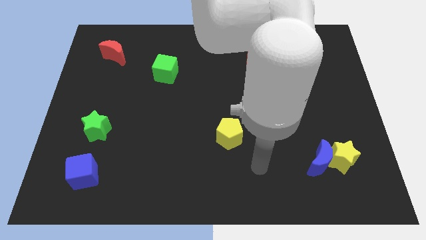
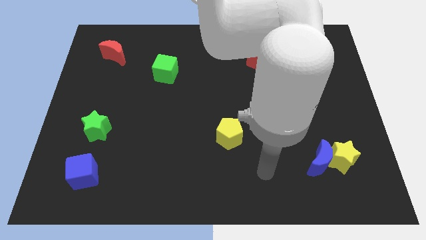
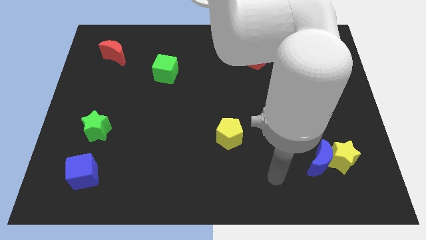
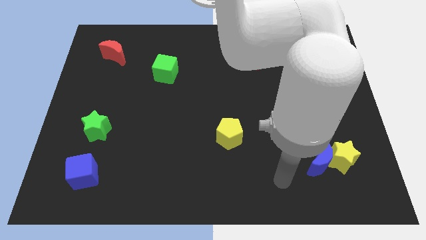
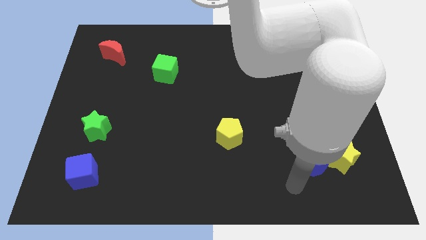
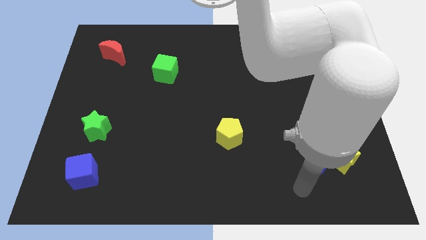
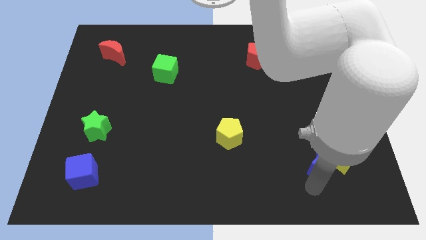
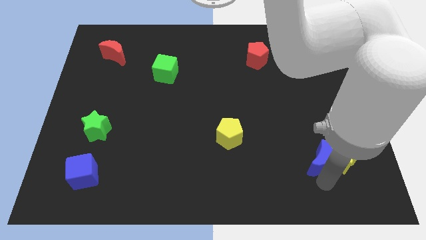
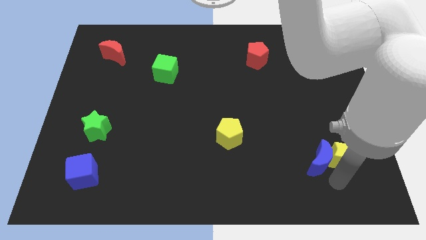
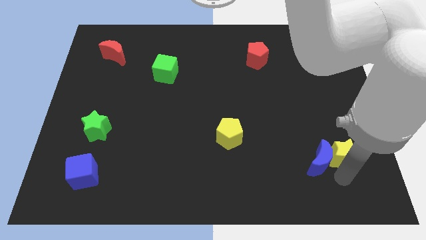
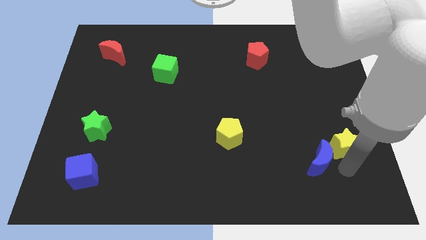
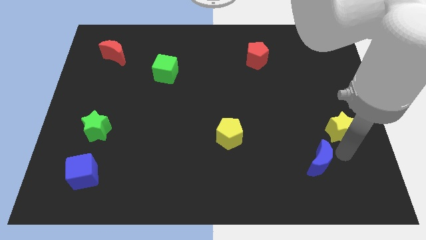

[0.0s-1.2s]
move the blue moon away from the yellow star

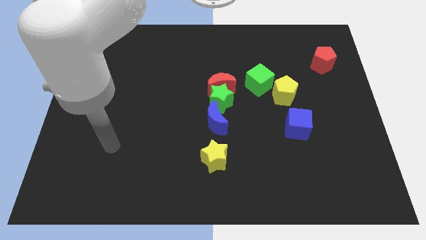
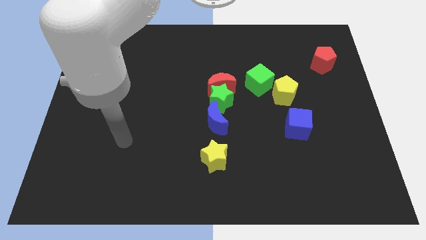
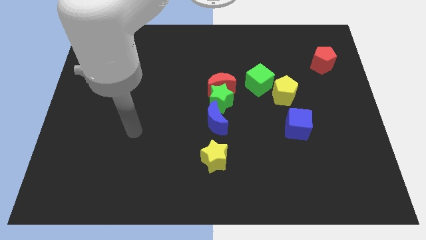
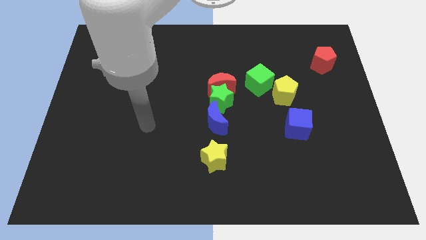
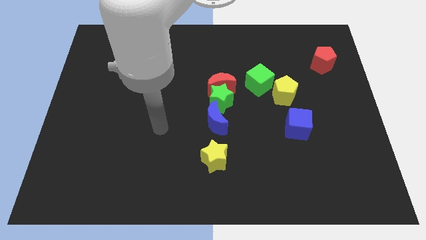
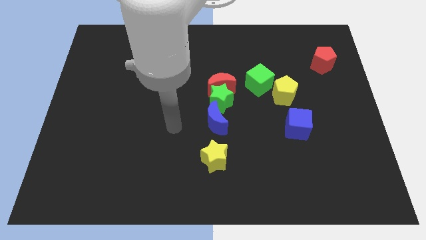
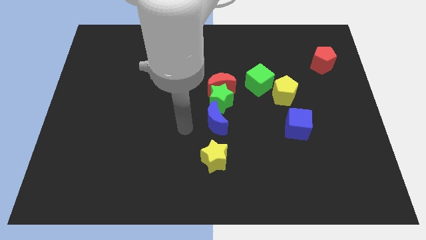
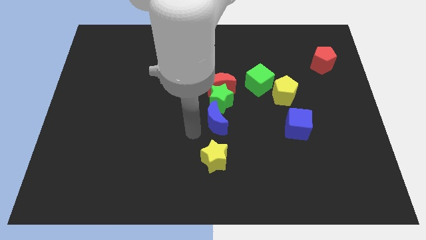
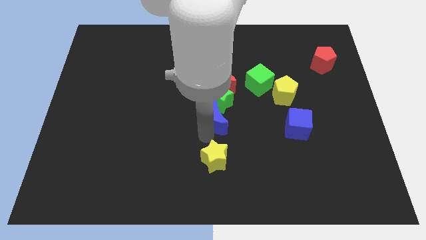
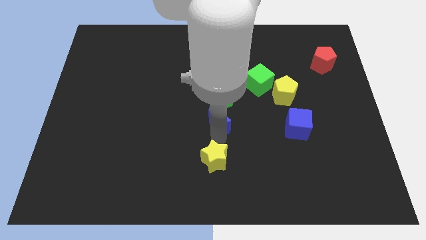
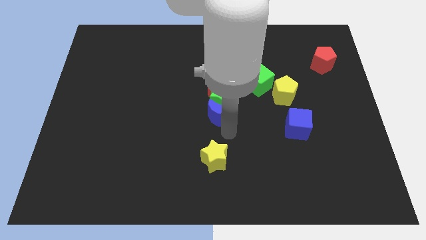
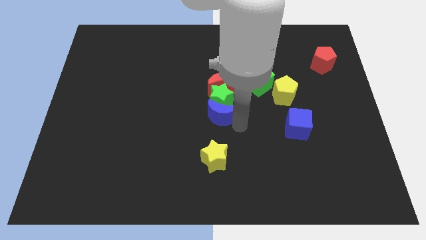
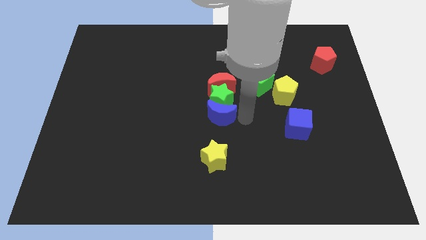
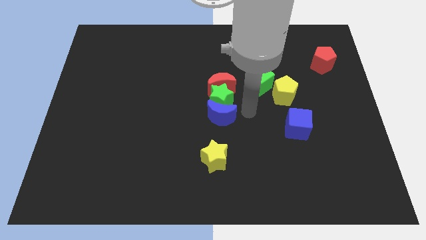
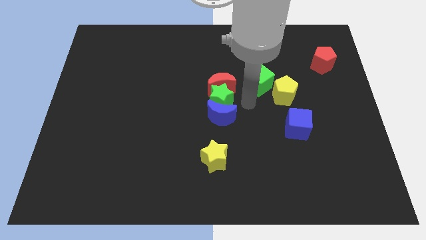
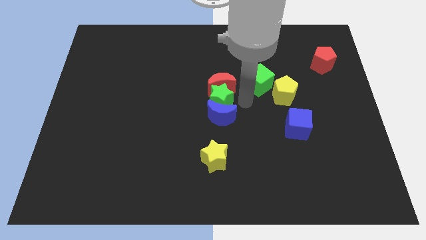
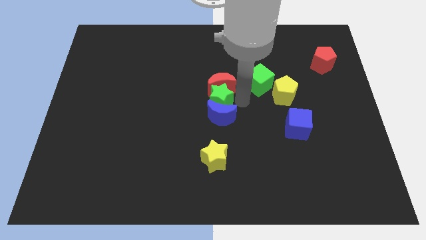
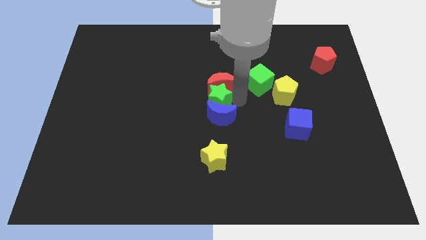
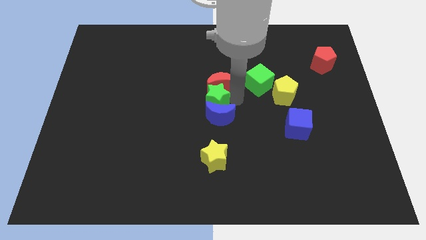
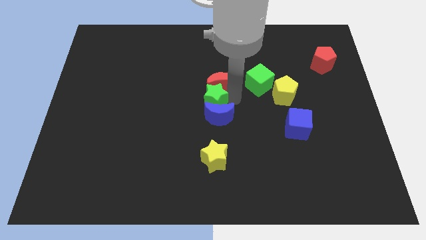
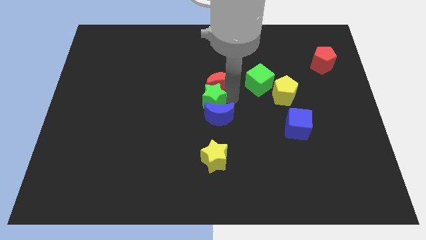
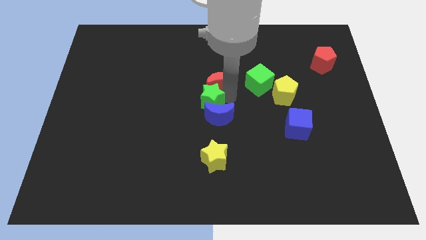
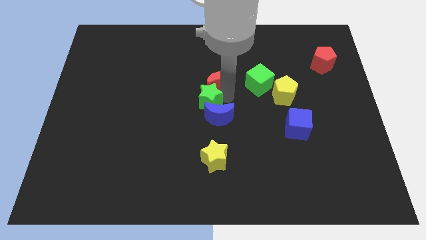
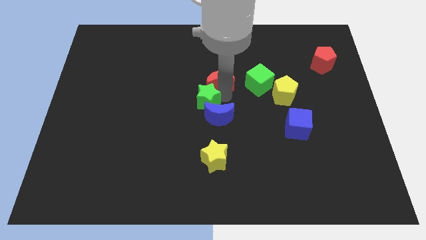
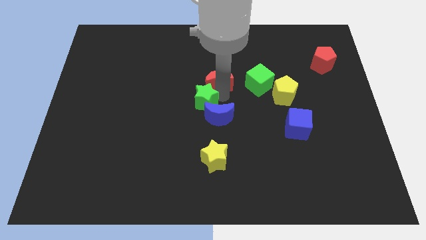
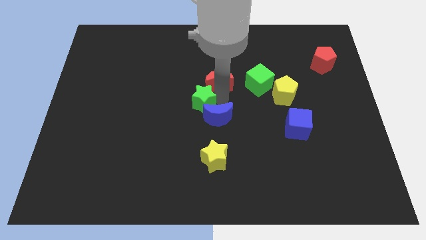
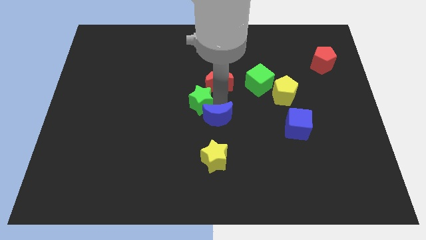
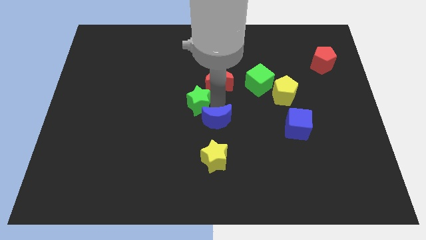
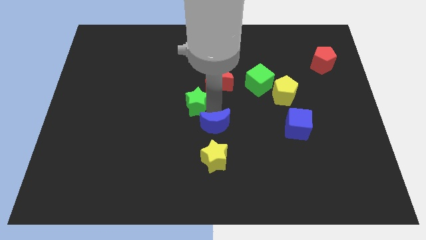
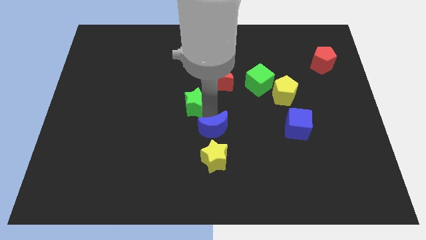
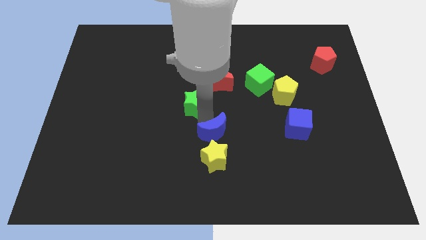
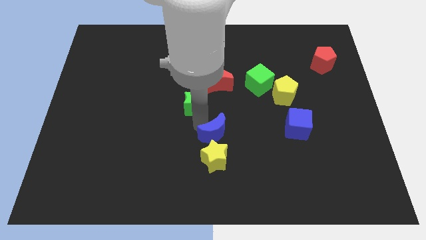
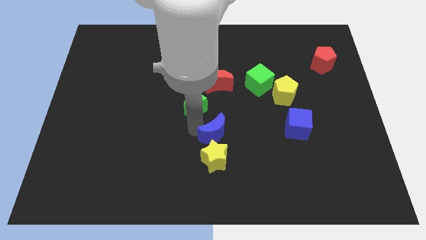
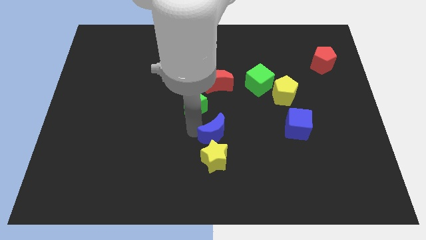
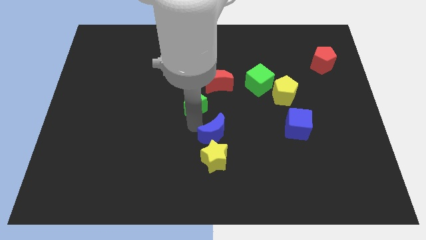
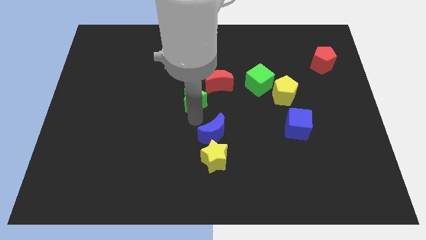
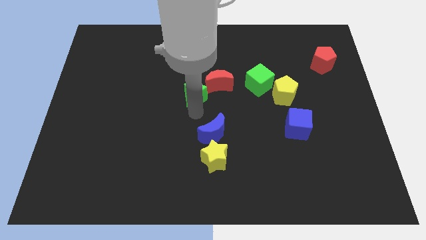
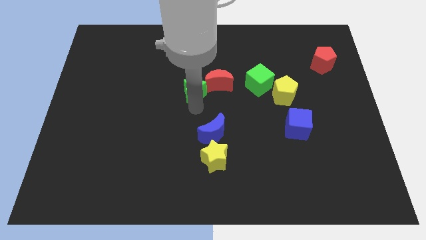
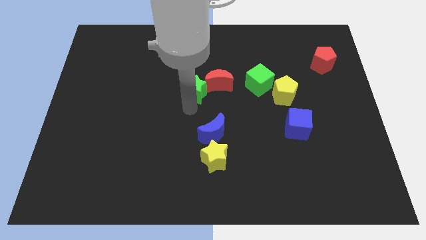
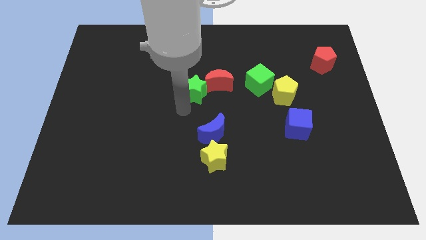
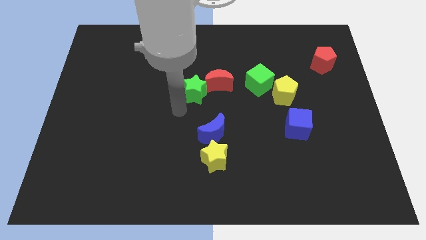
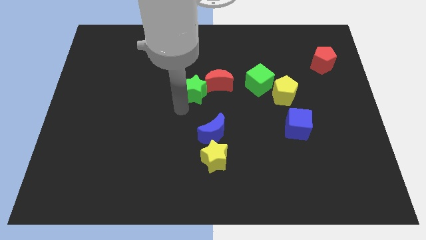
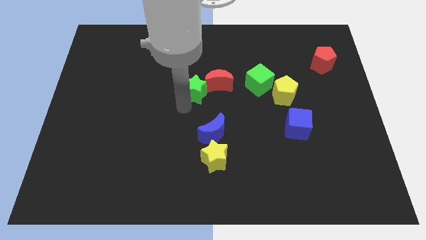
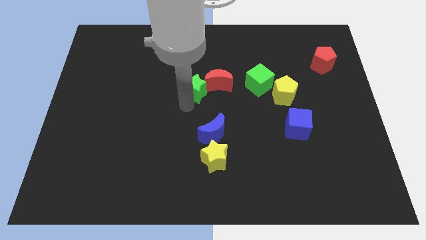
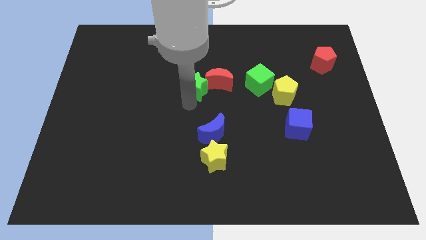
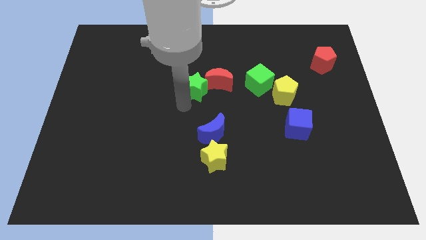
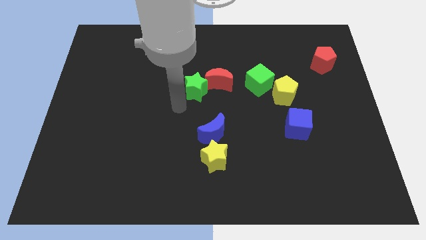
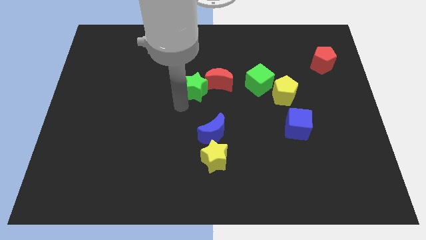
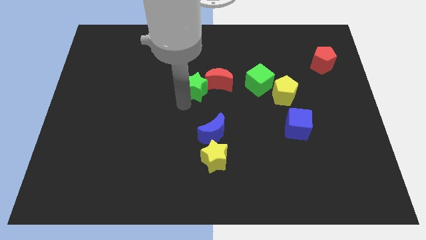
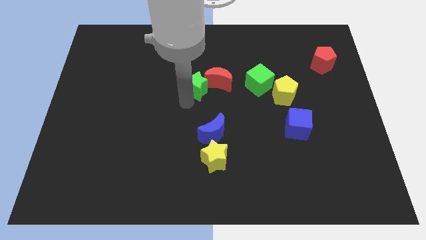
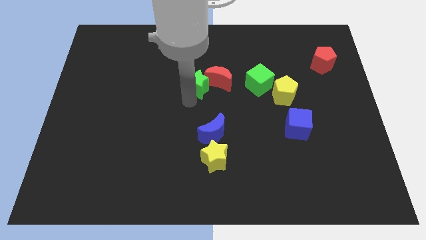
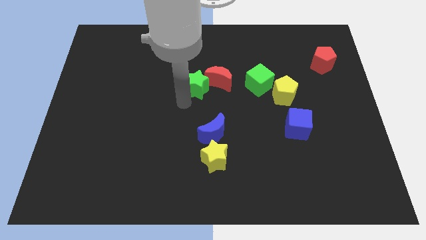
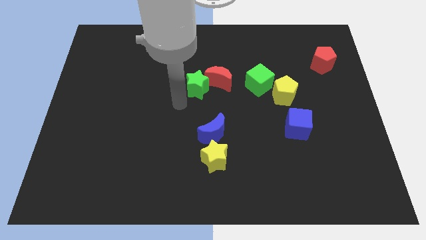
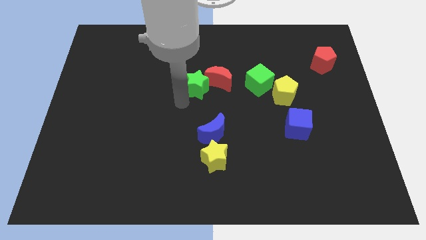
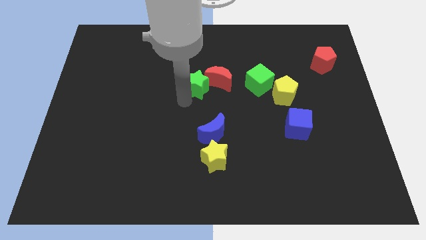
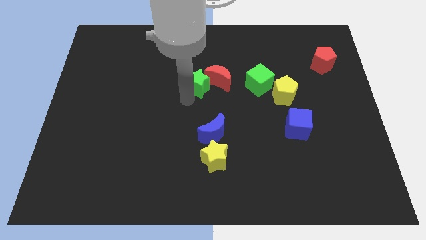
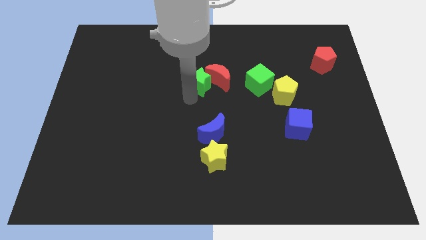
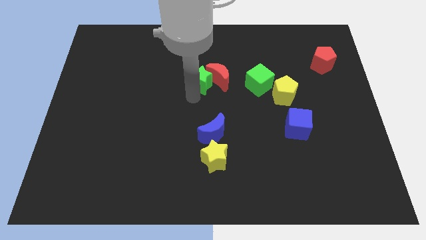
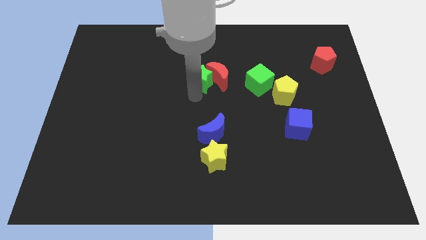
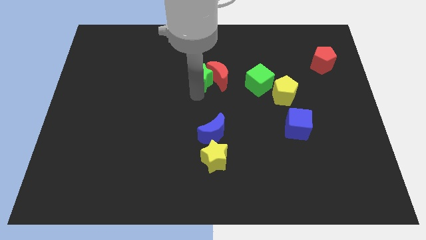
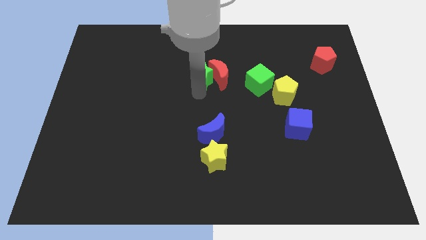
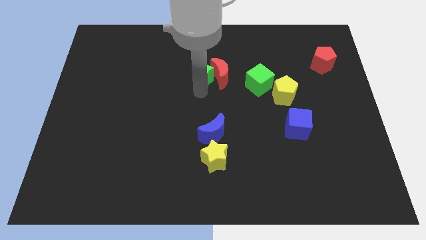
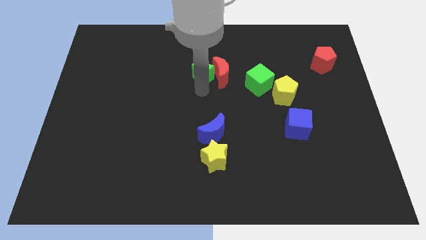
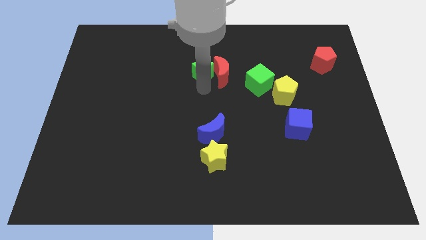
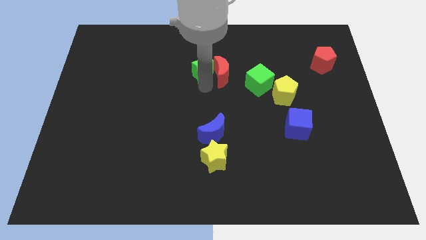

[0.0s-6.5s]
move the green star away from the red moon and blue moon

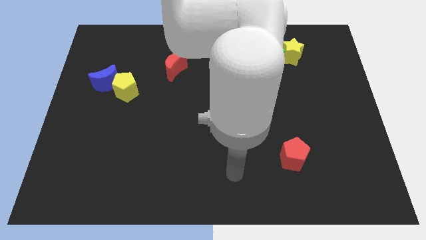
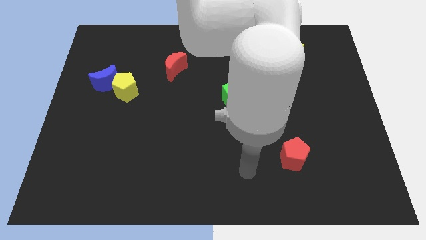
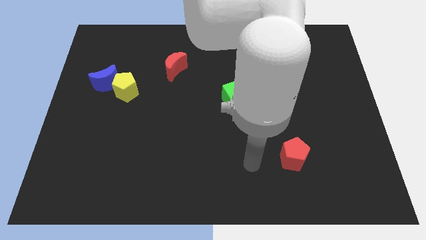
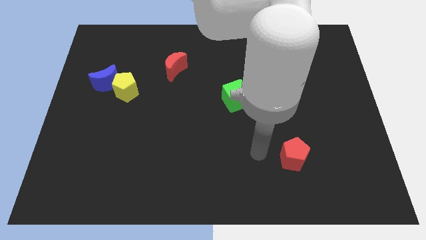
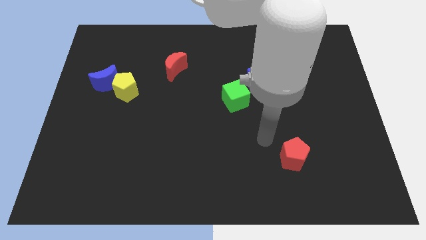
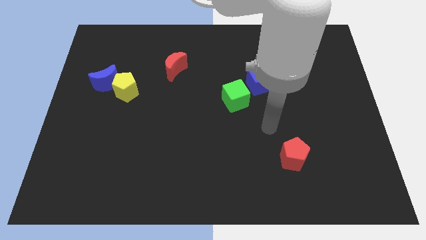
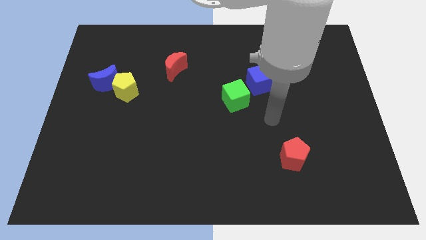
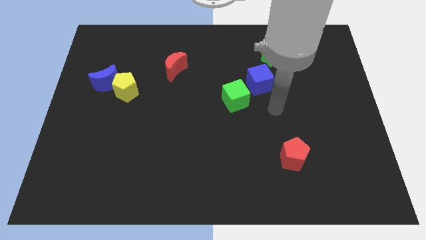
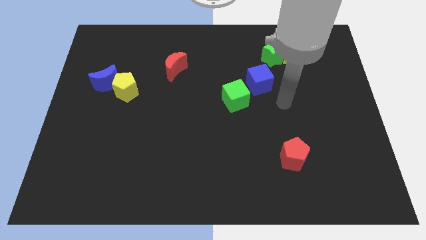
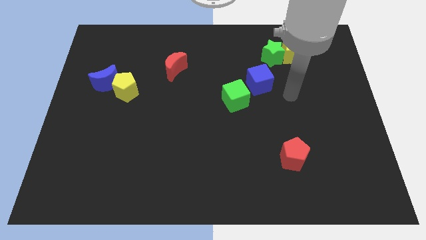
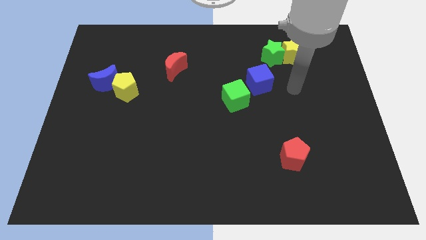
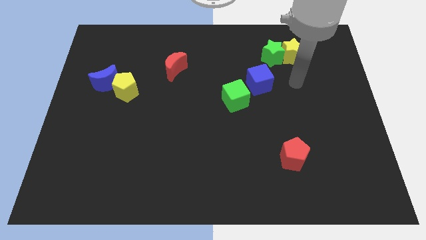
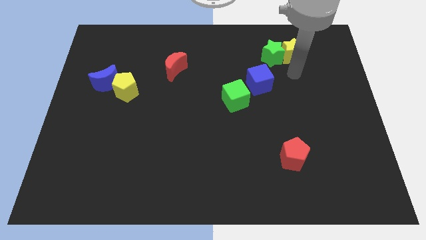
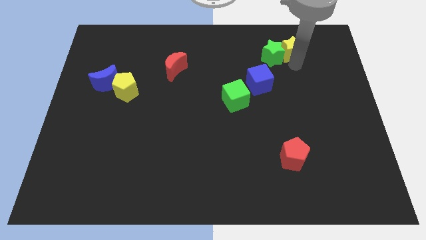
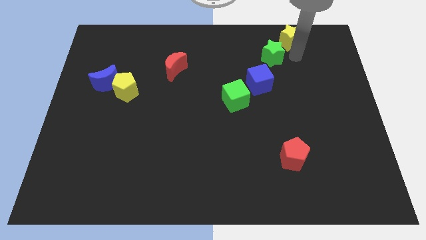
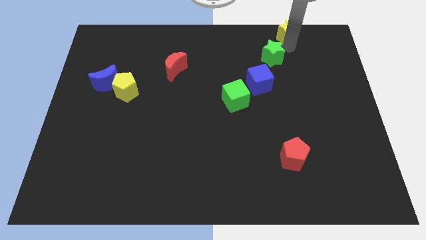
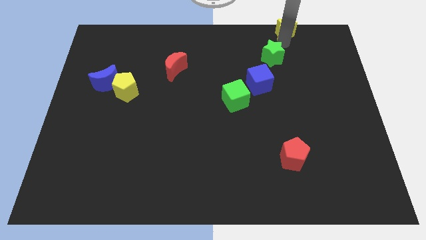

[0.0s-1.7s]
move the green star away from the yellow star
